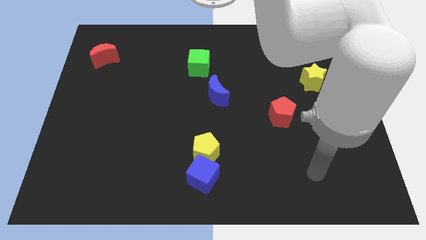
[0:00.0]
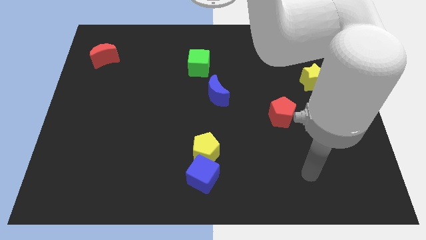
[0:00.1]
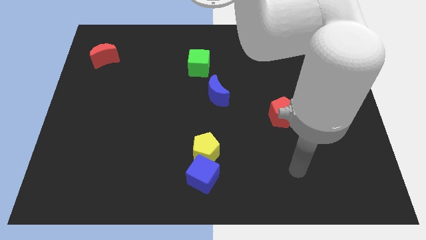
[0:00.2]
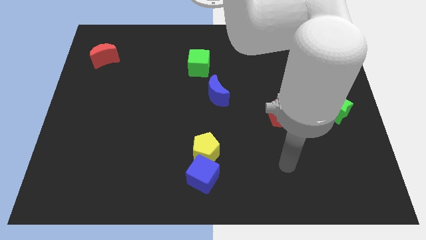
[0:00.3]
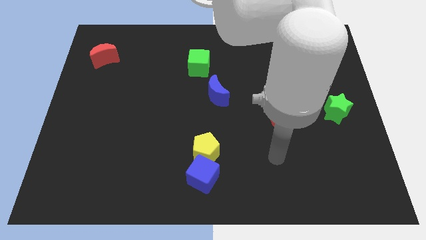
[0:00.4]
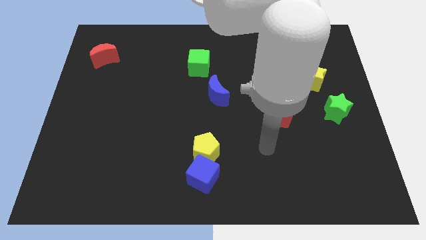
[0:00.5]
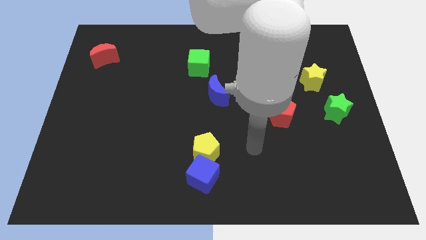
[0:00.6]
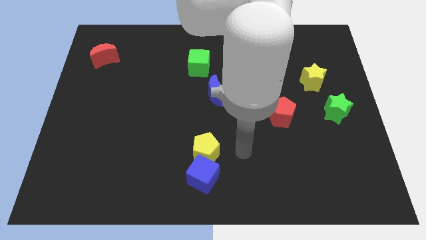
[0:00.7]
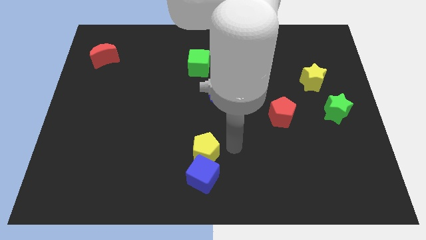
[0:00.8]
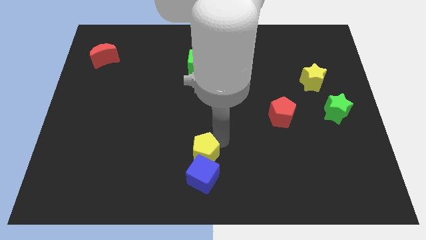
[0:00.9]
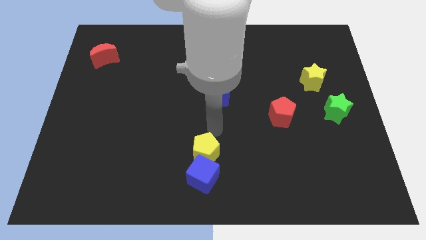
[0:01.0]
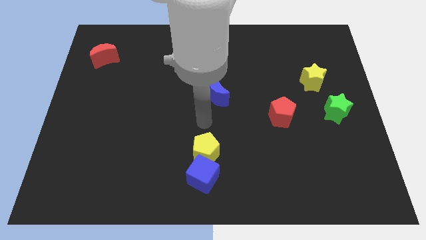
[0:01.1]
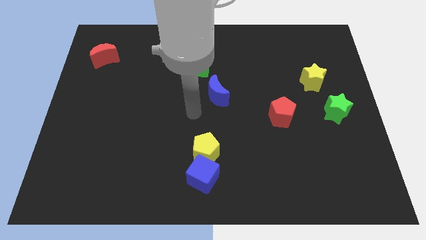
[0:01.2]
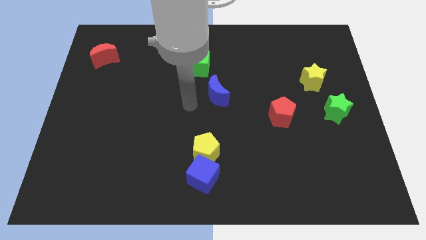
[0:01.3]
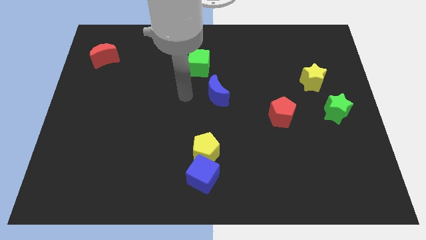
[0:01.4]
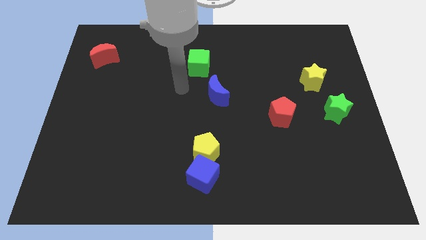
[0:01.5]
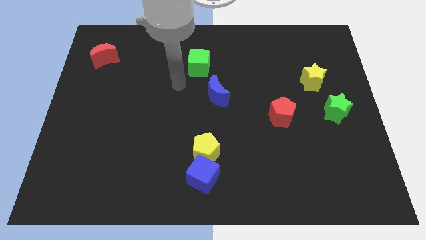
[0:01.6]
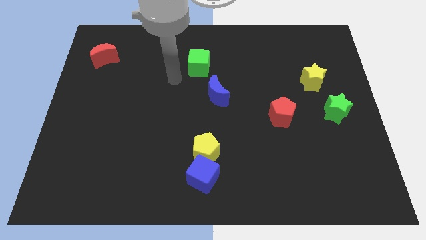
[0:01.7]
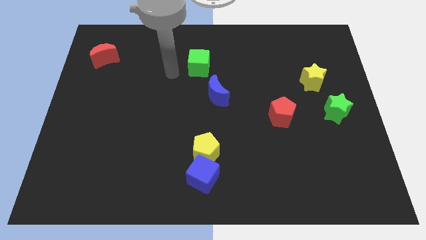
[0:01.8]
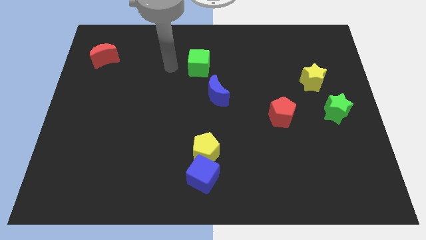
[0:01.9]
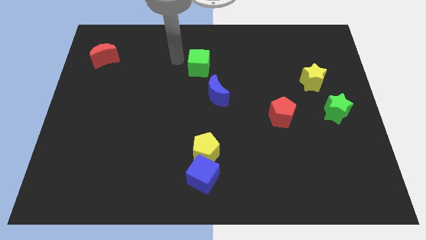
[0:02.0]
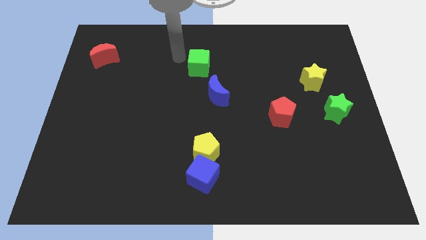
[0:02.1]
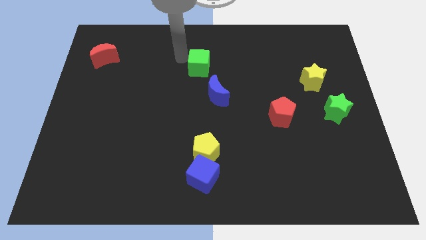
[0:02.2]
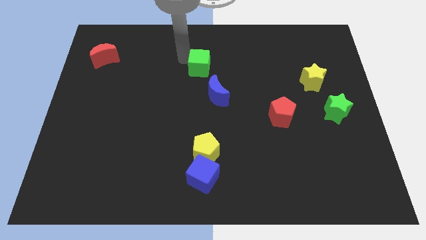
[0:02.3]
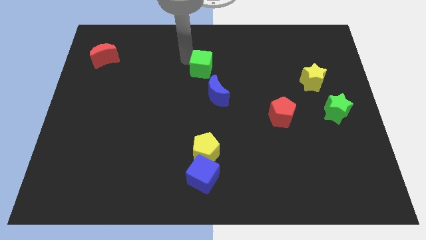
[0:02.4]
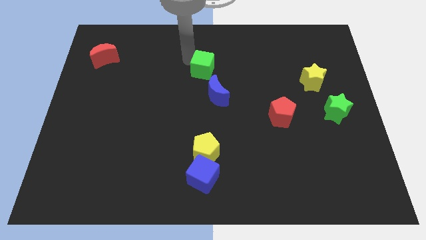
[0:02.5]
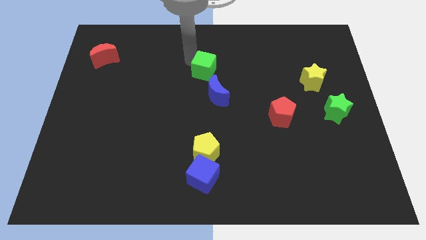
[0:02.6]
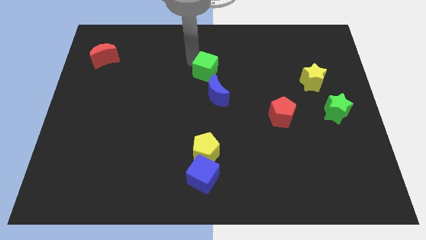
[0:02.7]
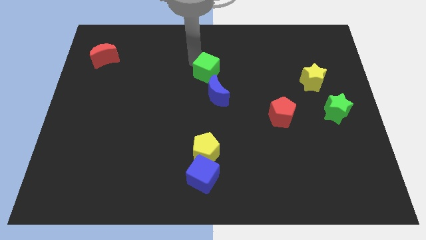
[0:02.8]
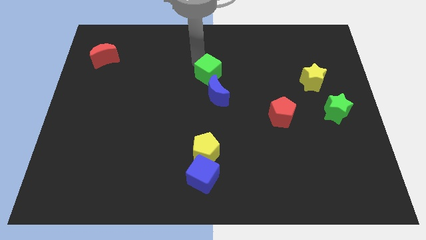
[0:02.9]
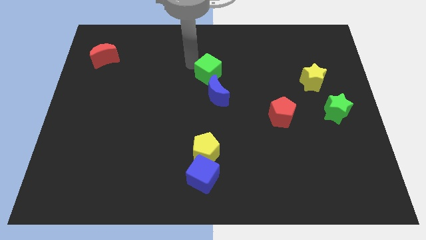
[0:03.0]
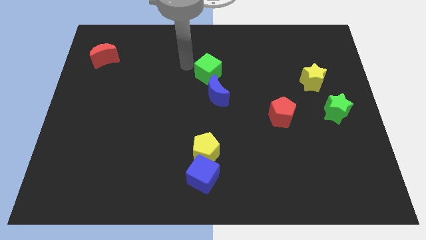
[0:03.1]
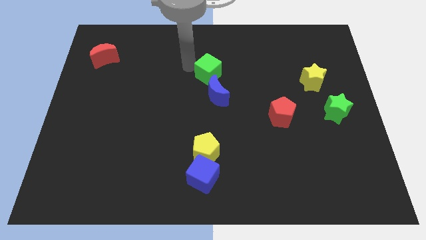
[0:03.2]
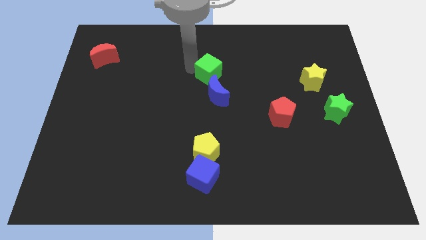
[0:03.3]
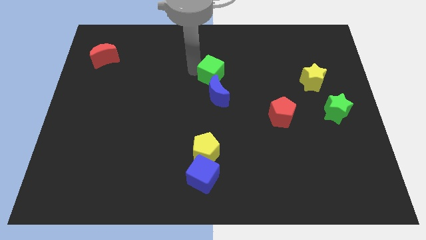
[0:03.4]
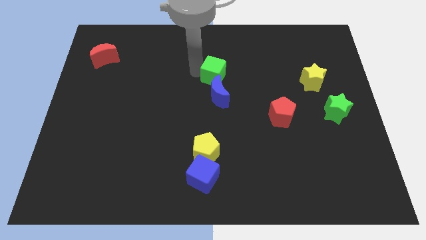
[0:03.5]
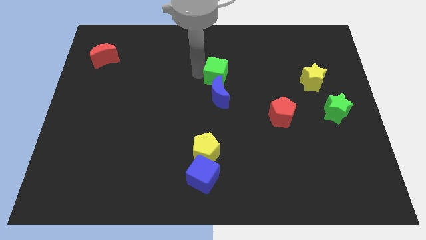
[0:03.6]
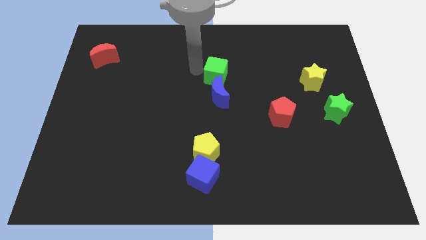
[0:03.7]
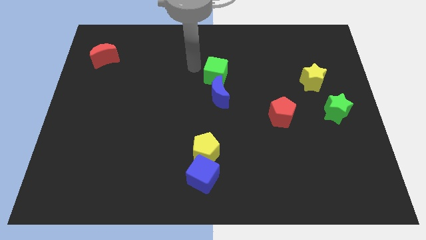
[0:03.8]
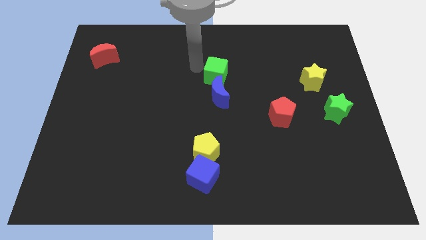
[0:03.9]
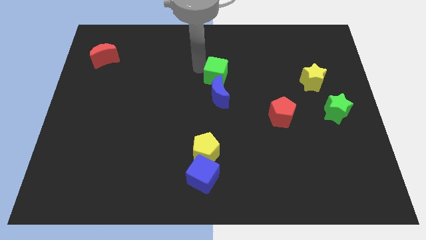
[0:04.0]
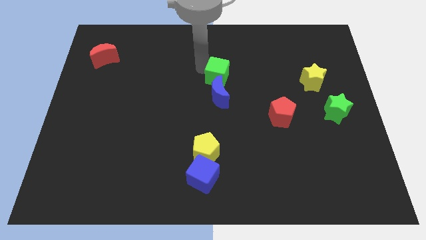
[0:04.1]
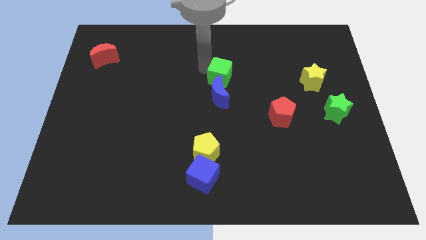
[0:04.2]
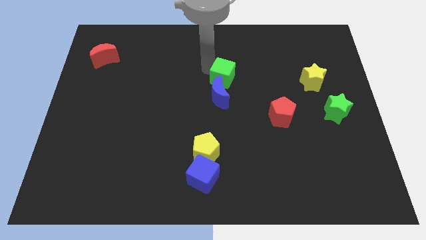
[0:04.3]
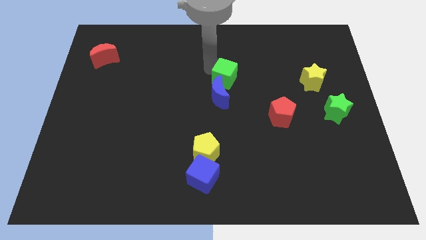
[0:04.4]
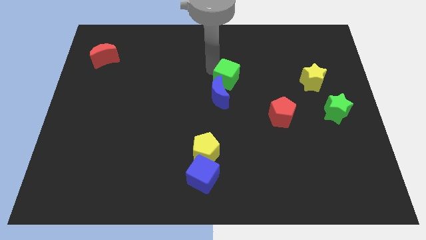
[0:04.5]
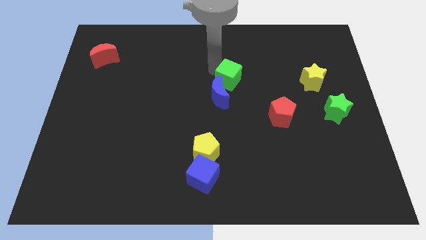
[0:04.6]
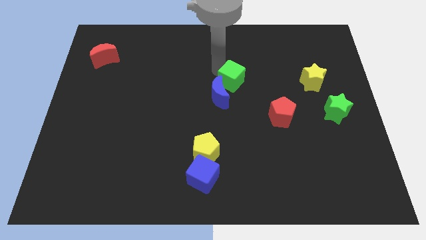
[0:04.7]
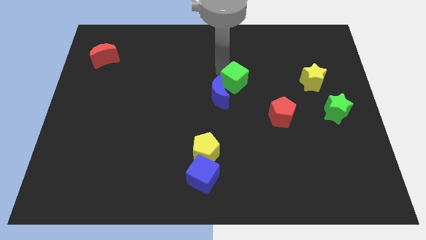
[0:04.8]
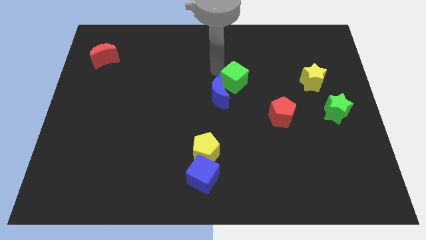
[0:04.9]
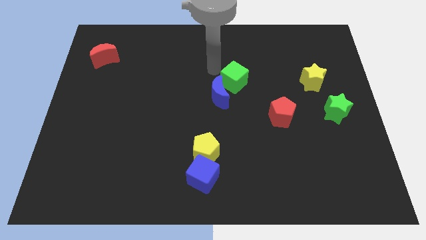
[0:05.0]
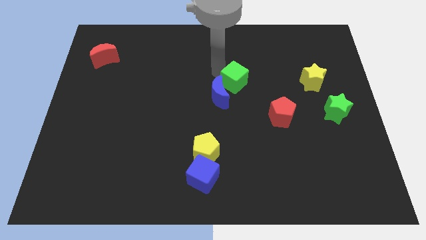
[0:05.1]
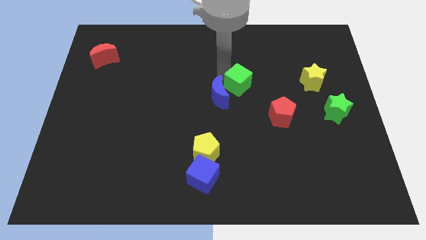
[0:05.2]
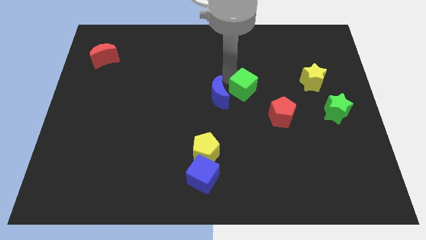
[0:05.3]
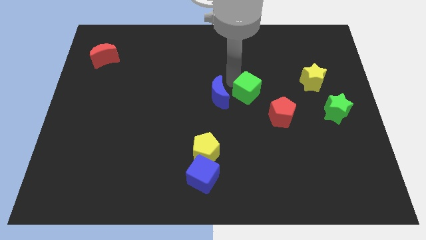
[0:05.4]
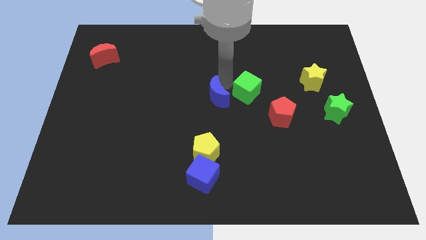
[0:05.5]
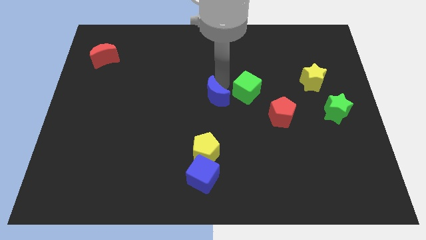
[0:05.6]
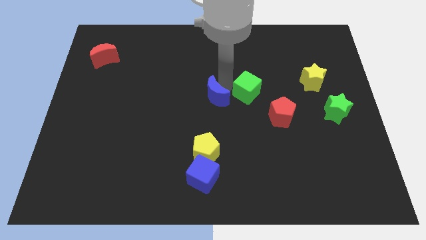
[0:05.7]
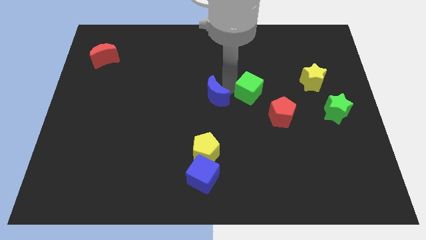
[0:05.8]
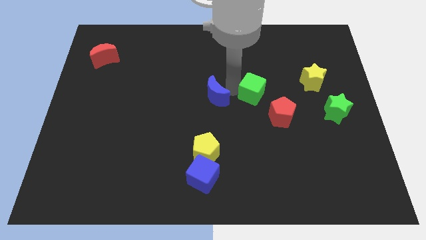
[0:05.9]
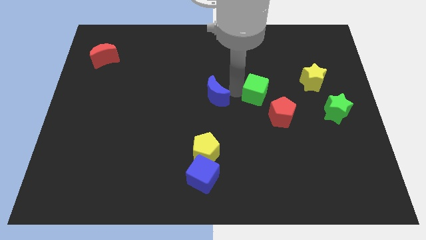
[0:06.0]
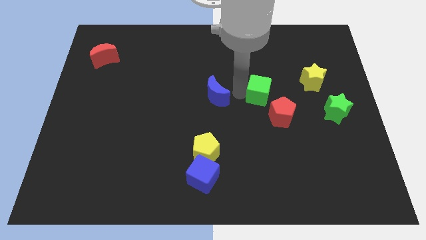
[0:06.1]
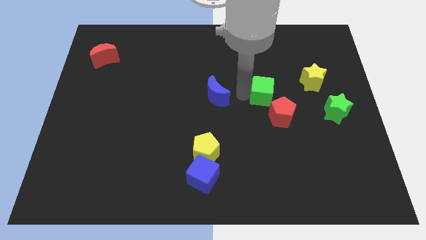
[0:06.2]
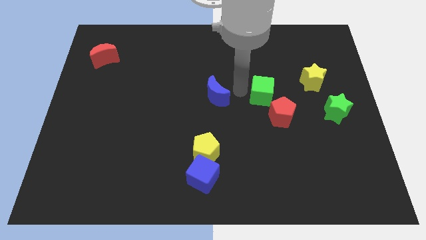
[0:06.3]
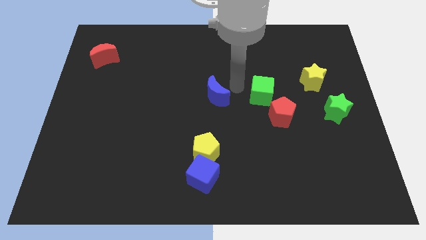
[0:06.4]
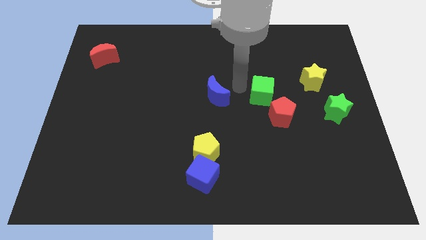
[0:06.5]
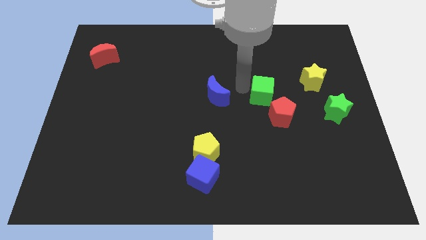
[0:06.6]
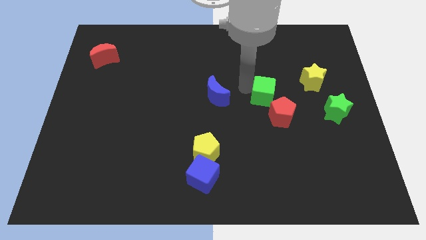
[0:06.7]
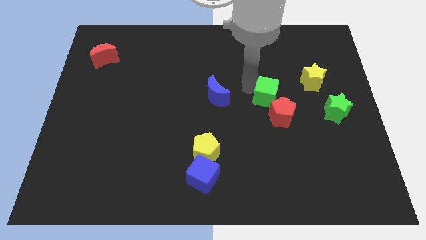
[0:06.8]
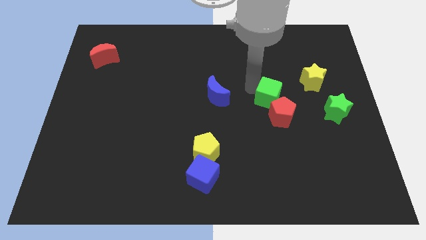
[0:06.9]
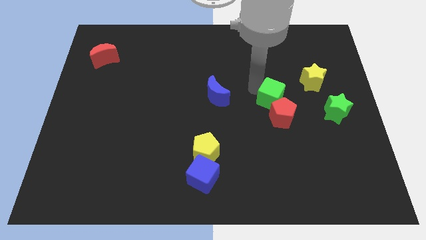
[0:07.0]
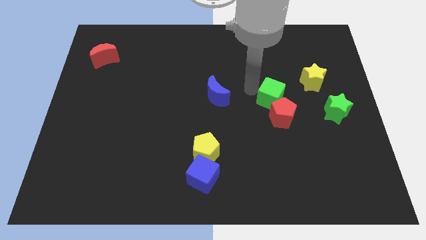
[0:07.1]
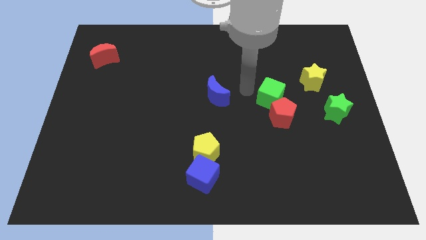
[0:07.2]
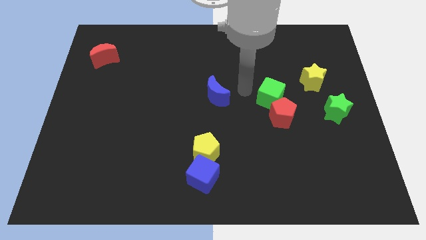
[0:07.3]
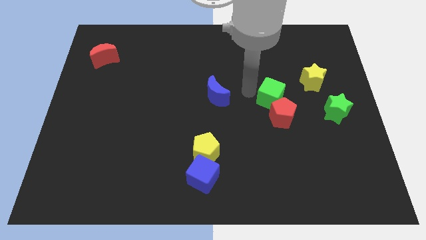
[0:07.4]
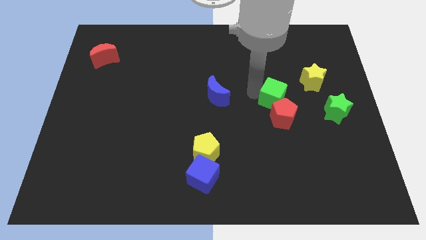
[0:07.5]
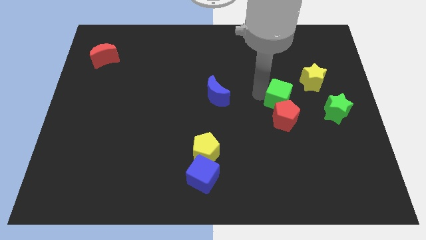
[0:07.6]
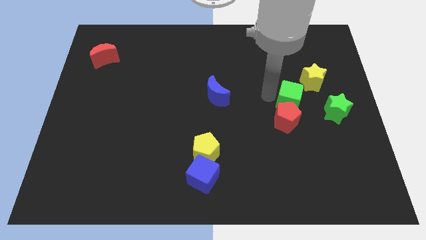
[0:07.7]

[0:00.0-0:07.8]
move the green cube to the top left side of the green star
